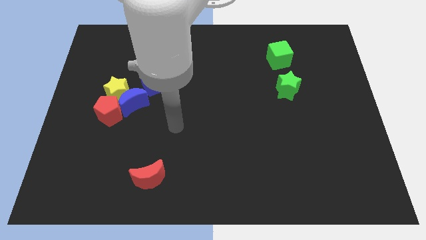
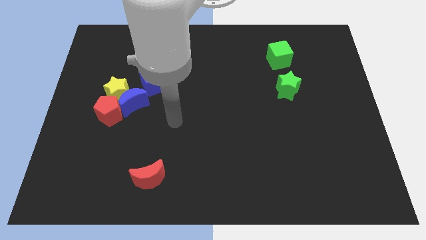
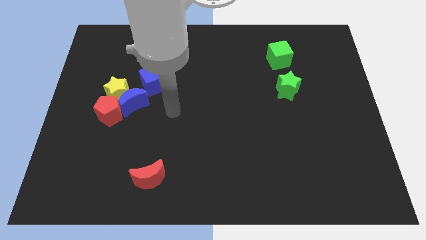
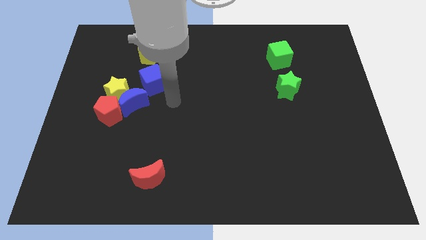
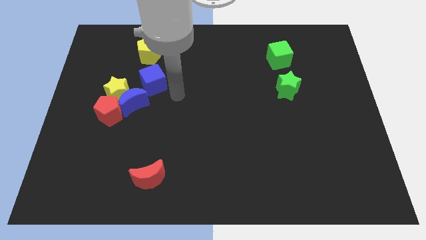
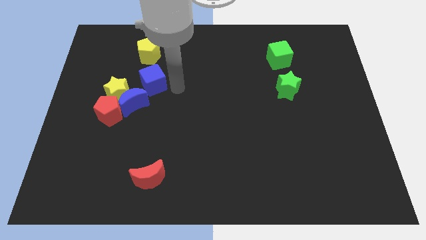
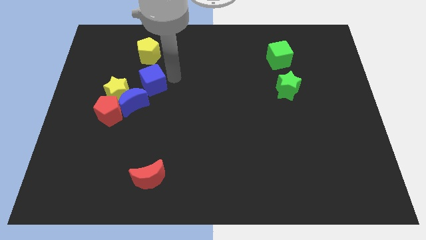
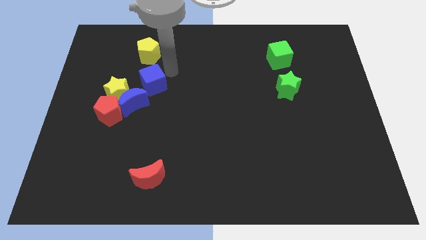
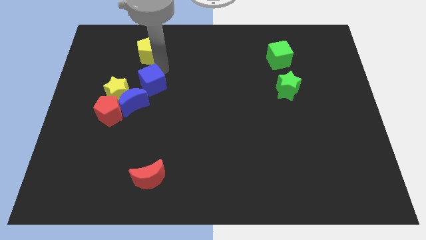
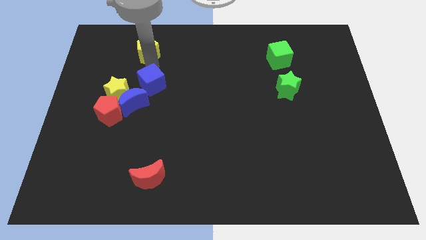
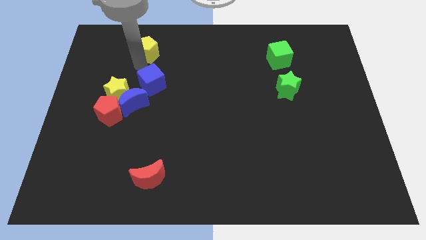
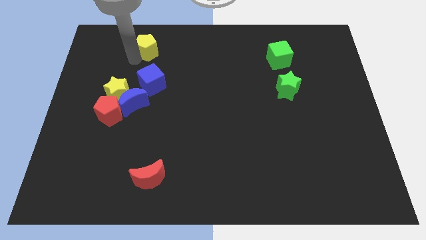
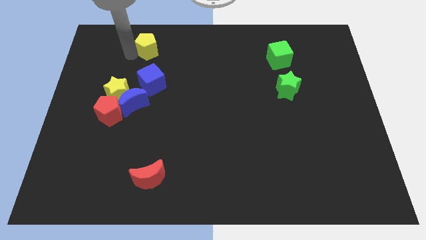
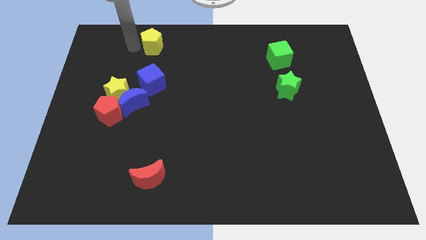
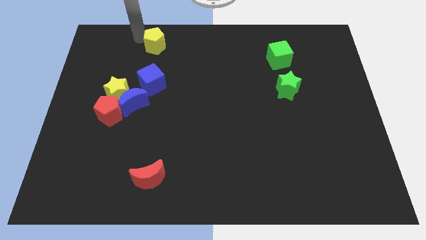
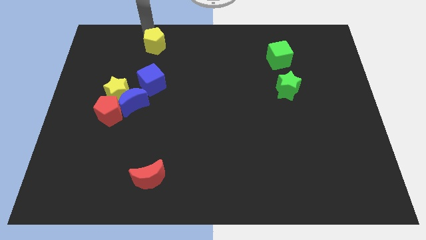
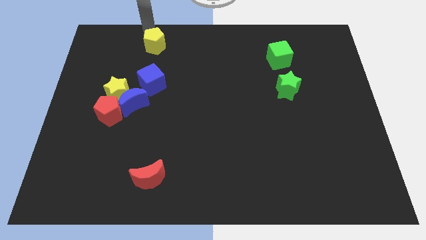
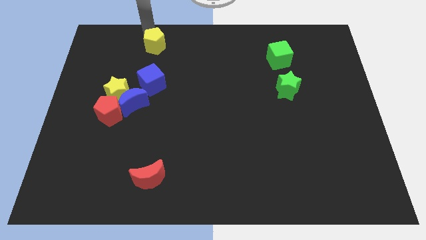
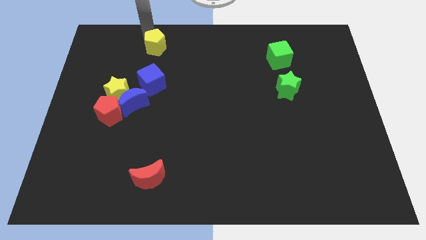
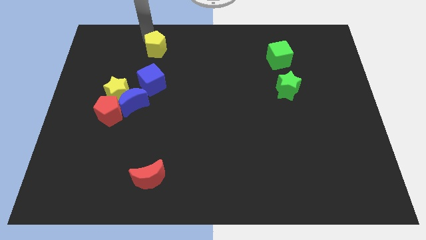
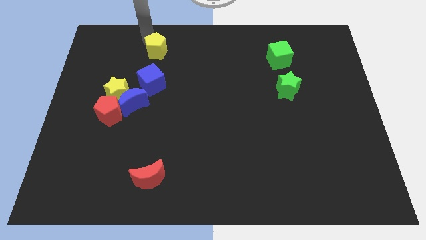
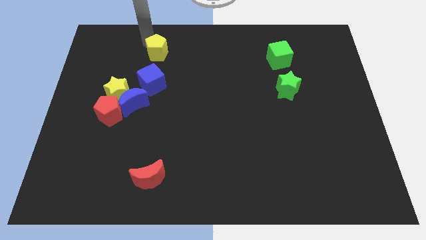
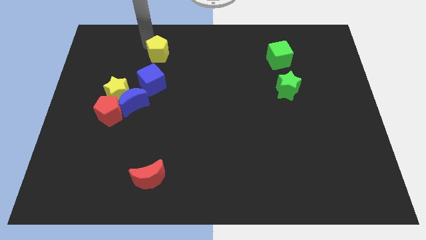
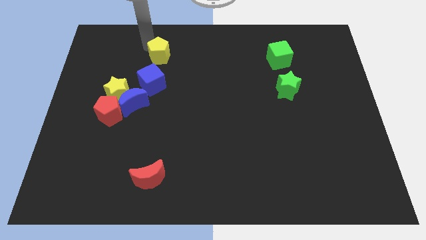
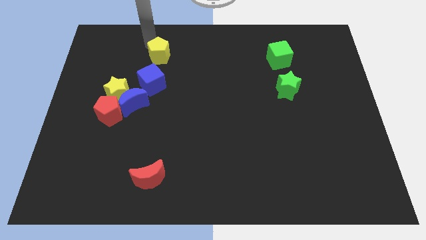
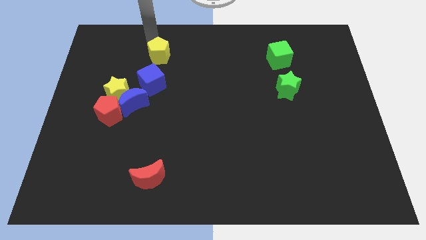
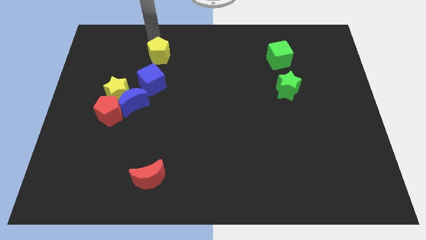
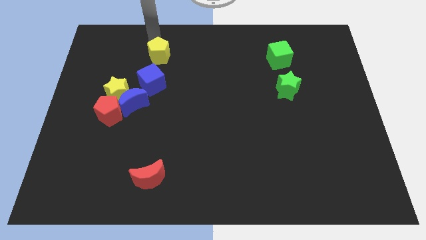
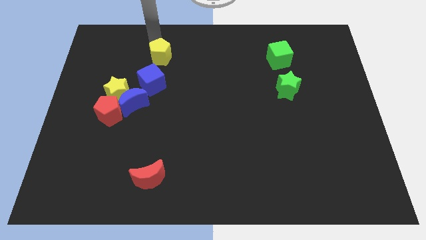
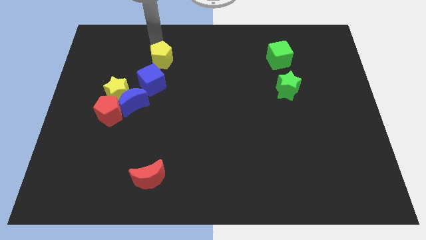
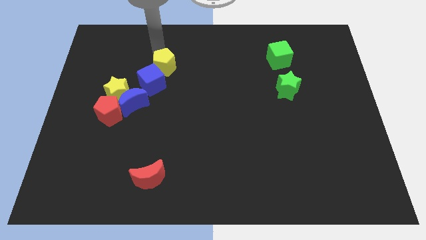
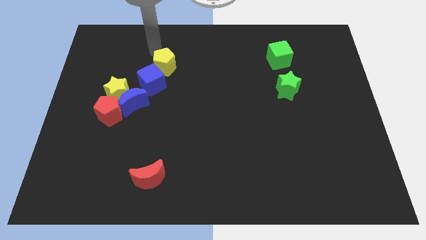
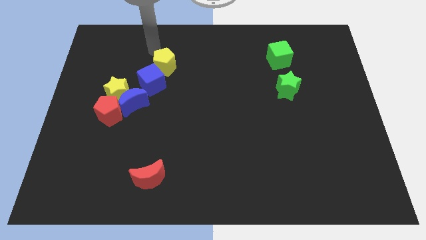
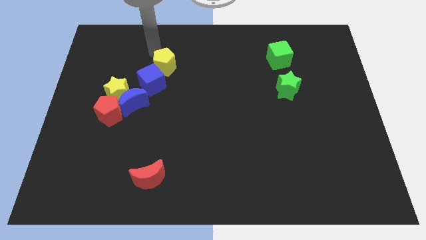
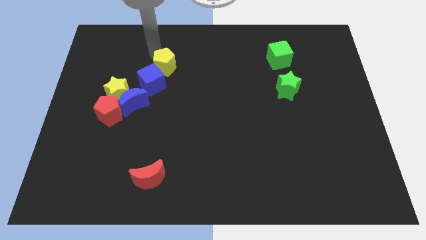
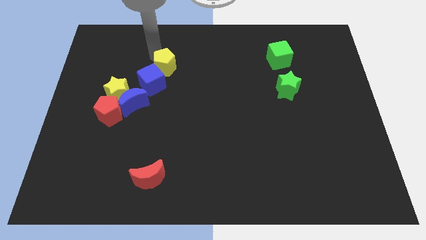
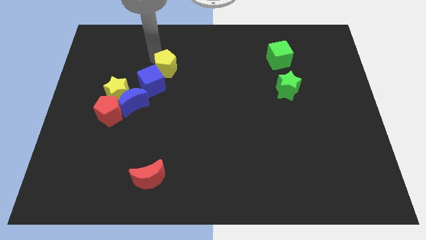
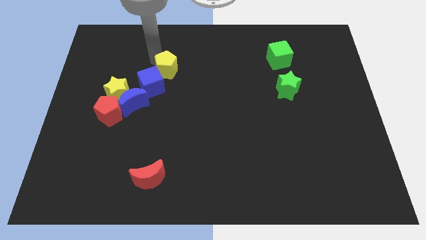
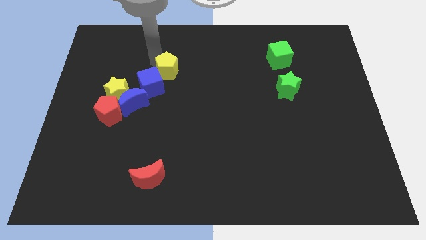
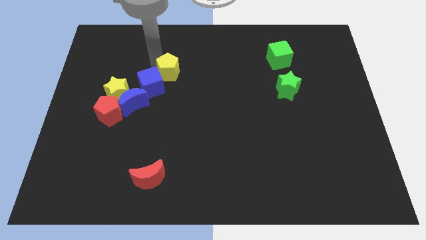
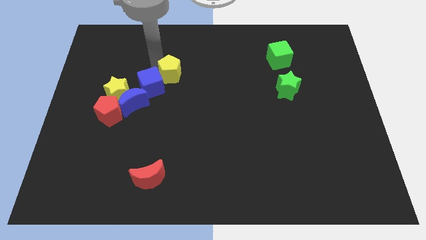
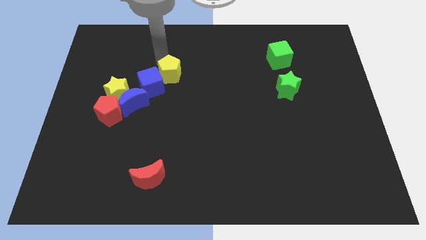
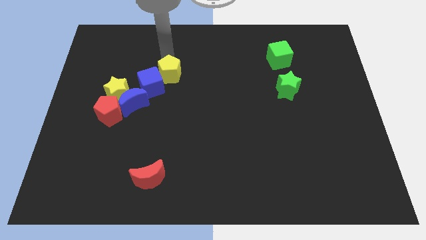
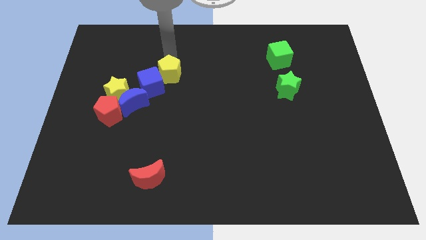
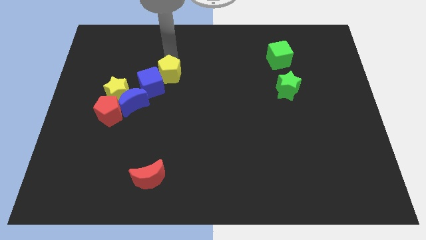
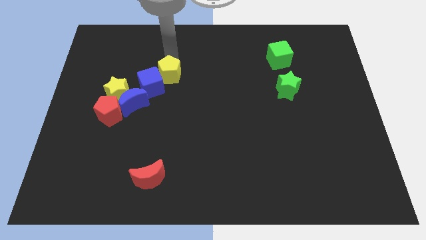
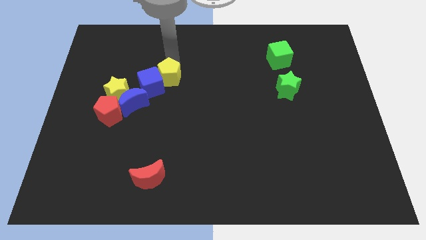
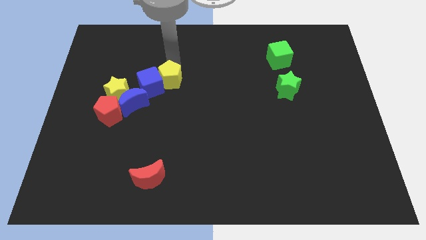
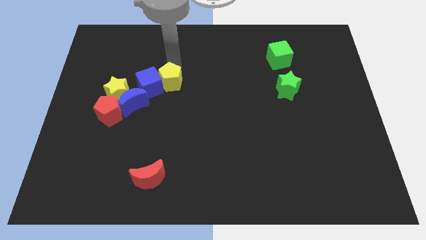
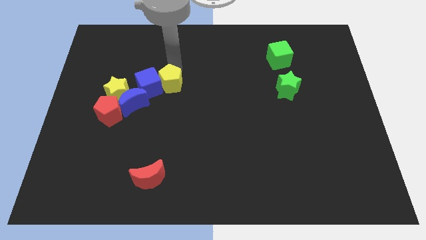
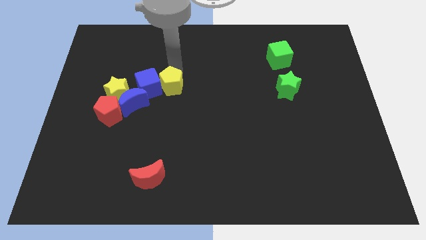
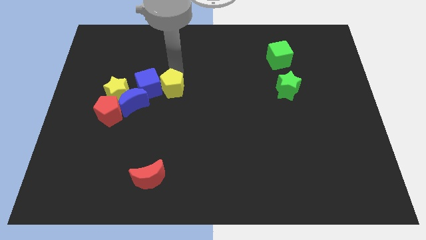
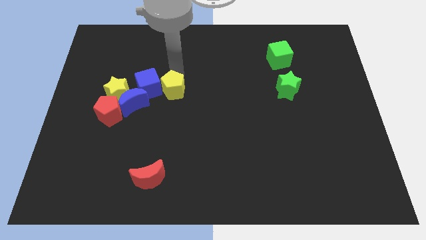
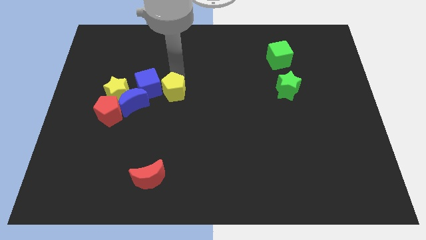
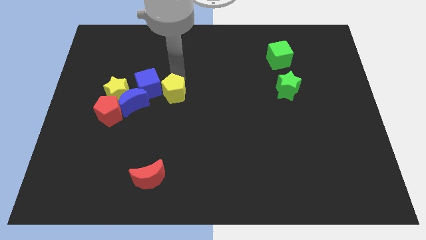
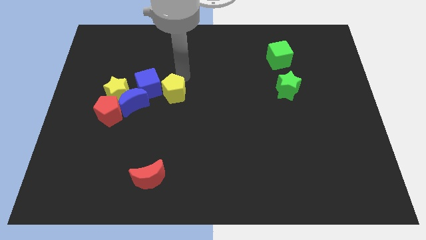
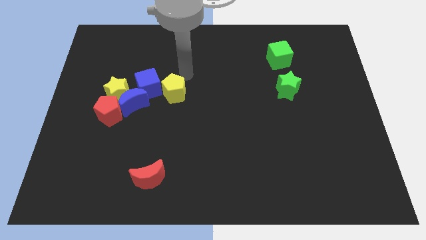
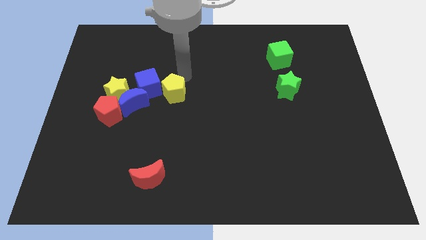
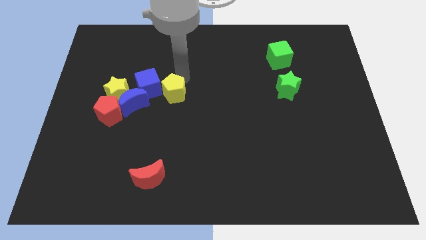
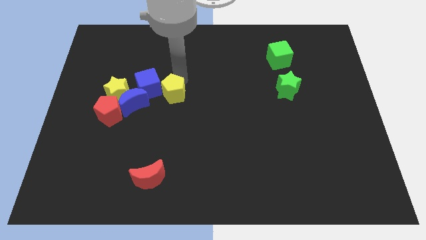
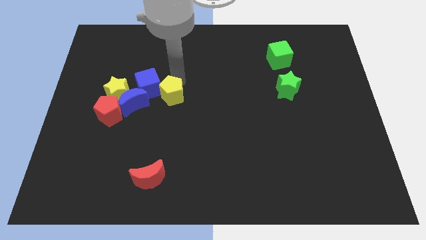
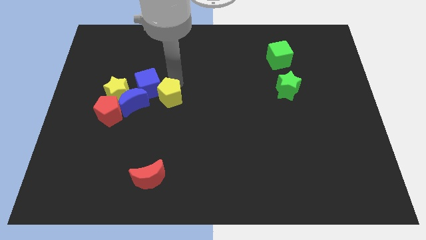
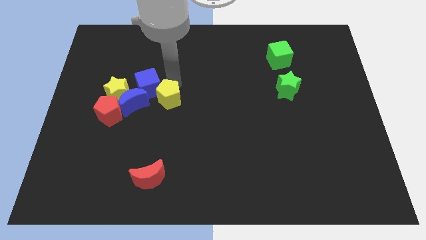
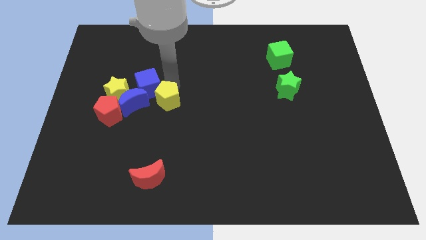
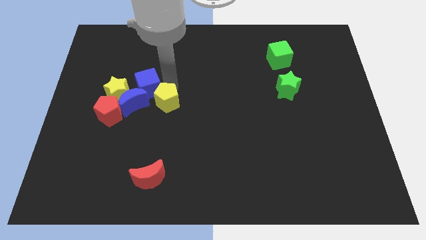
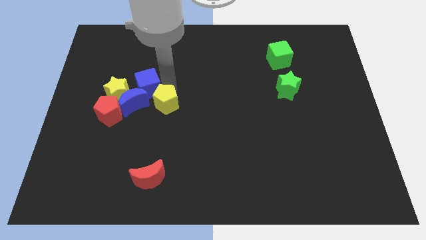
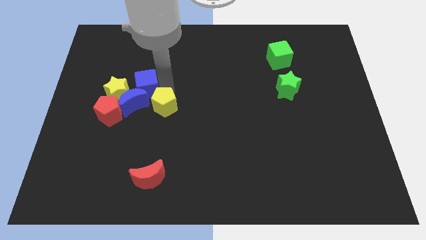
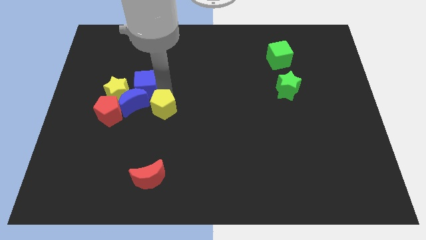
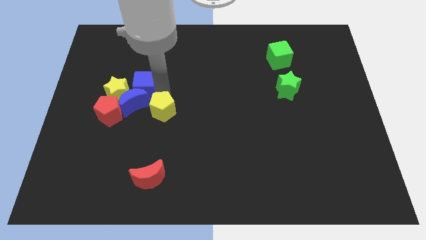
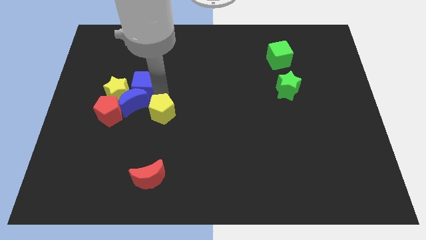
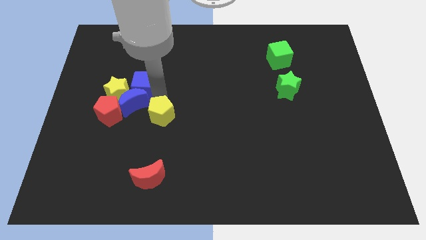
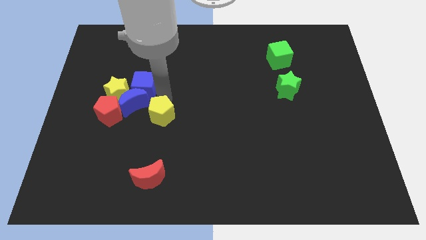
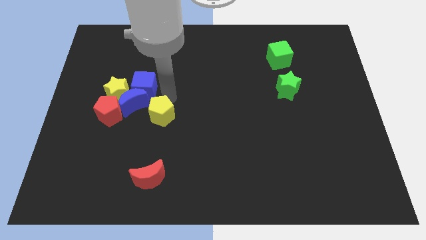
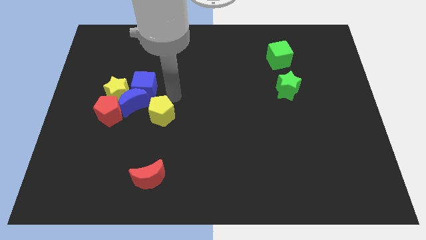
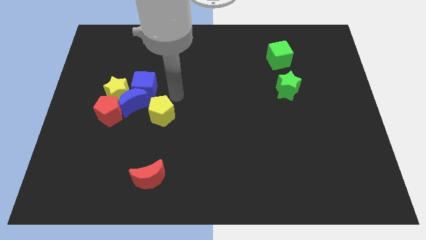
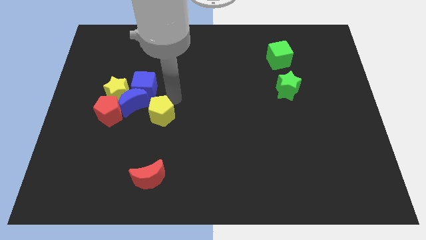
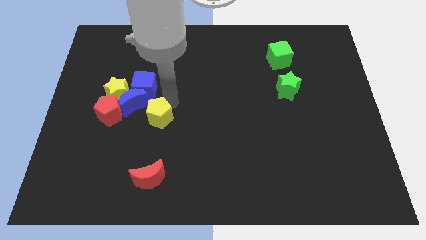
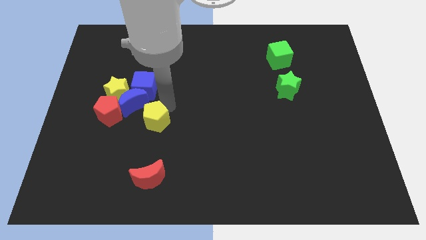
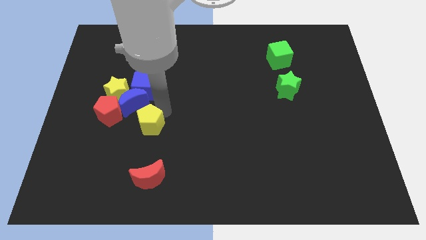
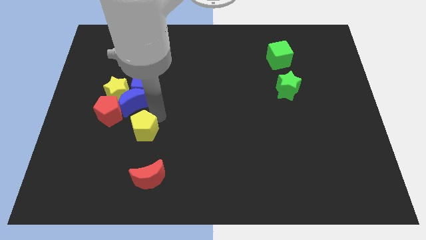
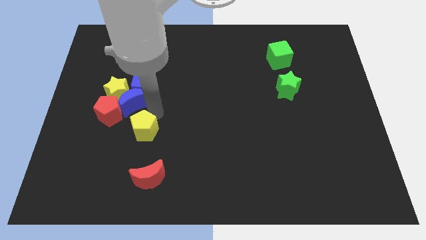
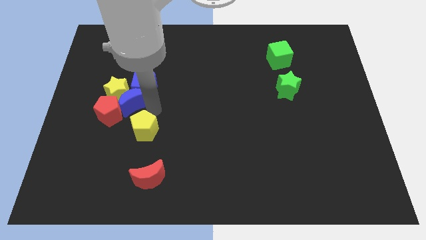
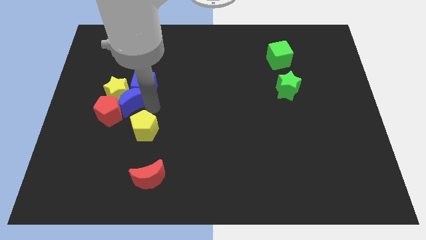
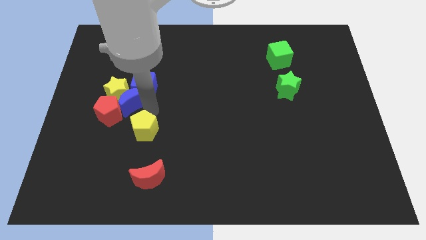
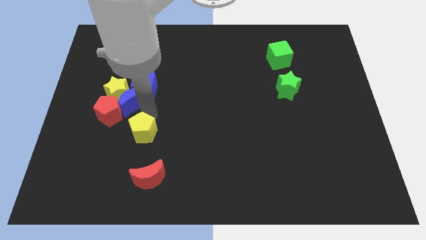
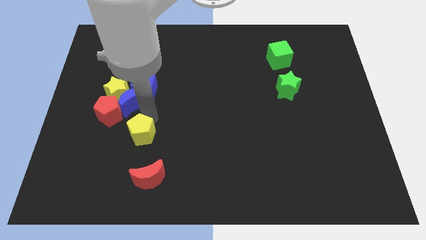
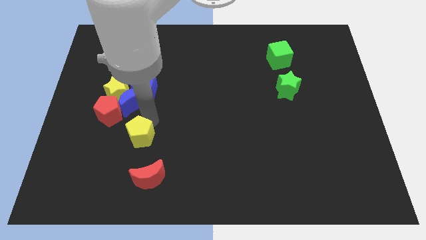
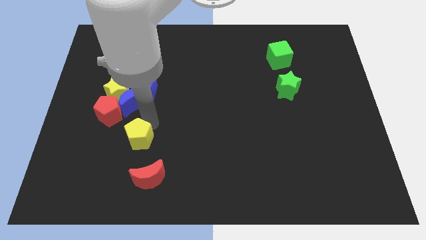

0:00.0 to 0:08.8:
slide the yellow pentagon to the top left side of the red moon
